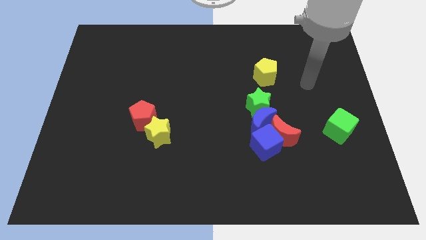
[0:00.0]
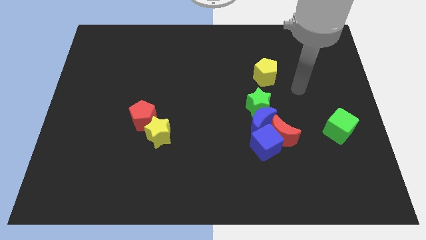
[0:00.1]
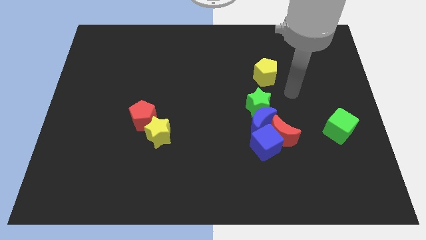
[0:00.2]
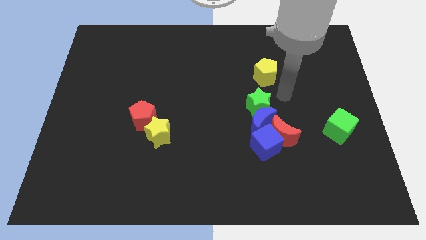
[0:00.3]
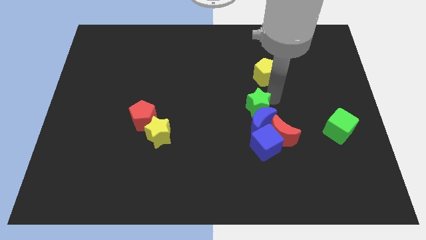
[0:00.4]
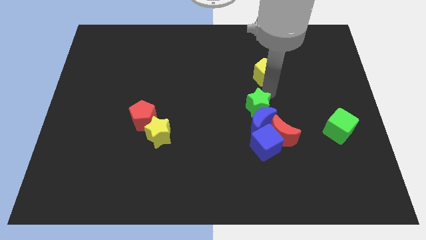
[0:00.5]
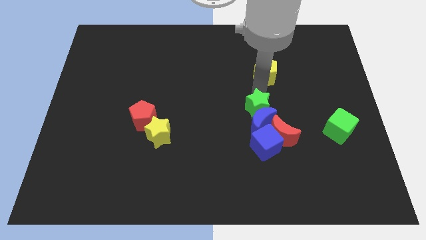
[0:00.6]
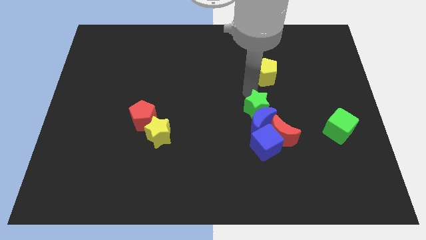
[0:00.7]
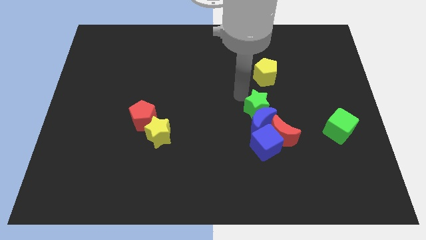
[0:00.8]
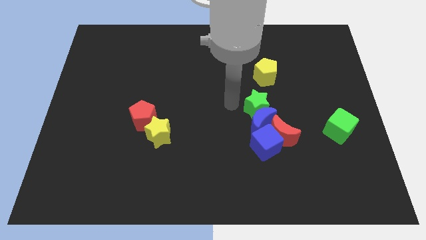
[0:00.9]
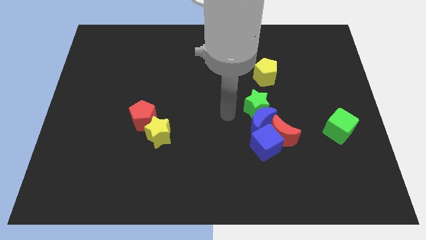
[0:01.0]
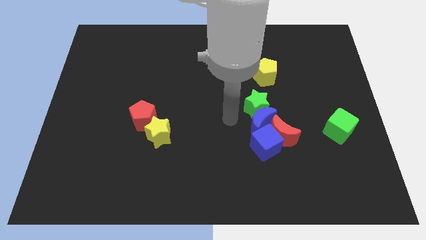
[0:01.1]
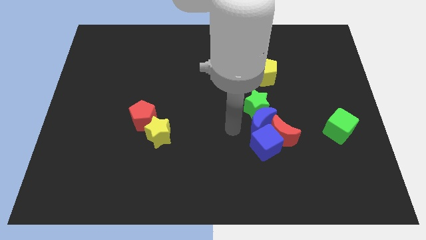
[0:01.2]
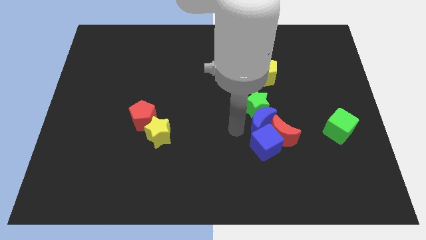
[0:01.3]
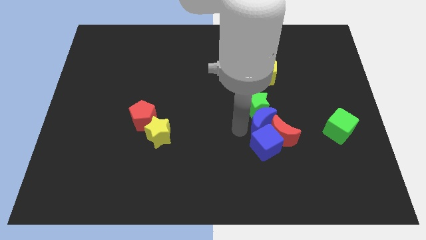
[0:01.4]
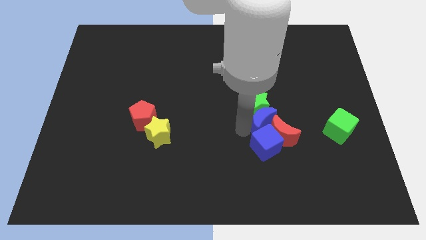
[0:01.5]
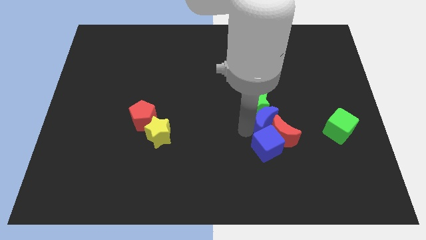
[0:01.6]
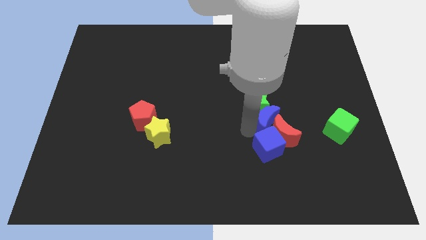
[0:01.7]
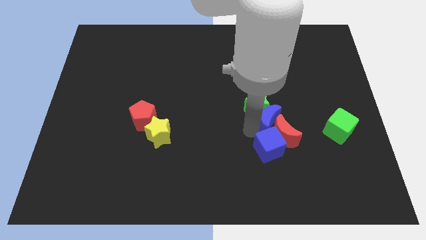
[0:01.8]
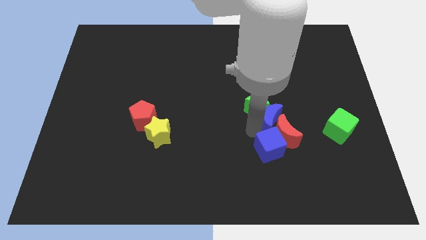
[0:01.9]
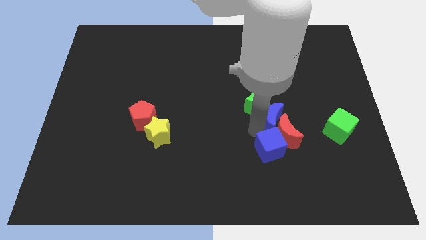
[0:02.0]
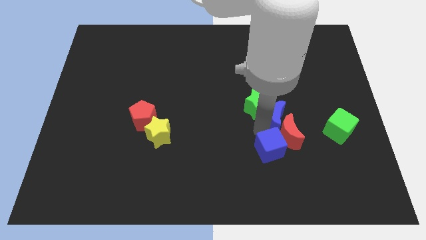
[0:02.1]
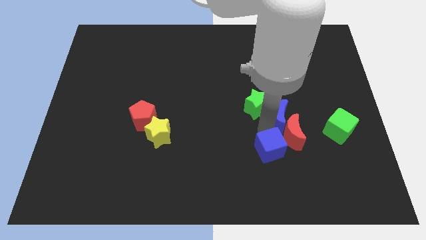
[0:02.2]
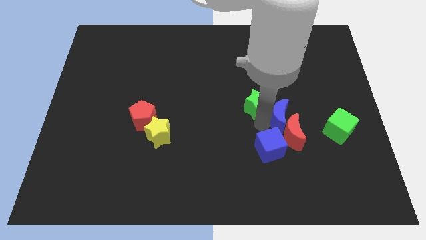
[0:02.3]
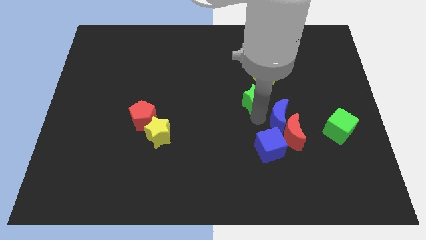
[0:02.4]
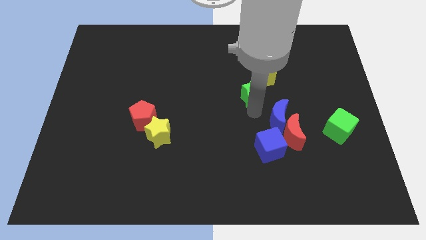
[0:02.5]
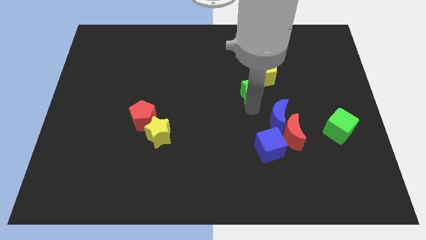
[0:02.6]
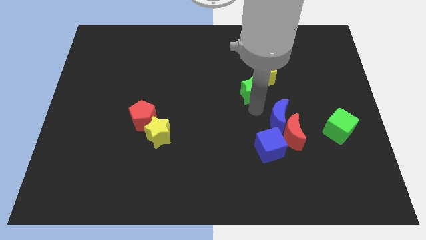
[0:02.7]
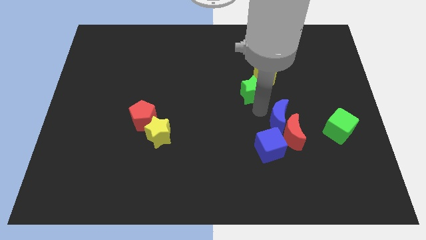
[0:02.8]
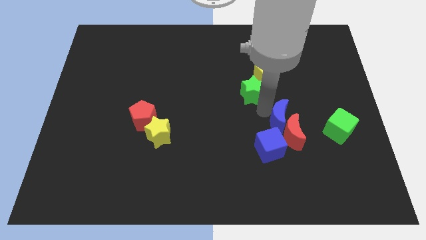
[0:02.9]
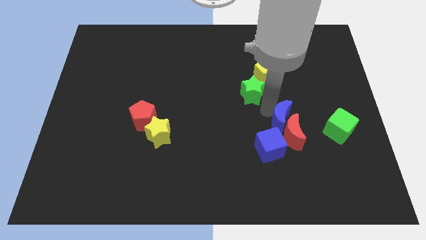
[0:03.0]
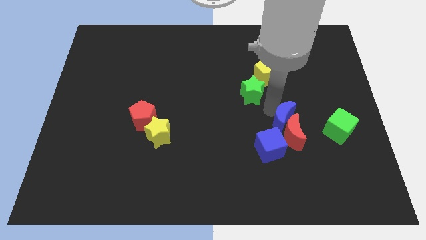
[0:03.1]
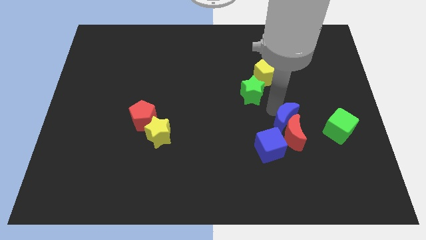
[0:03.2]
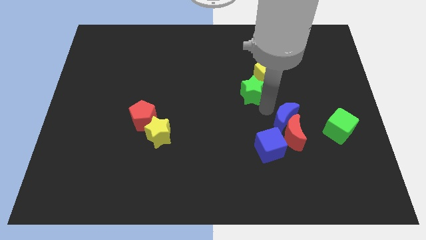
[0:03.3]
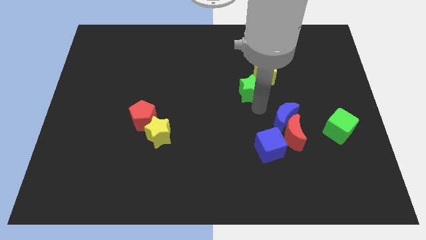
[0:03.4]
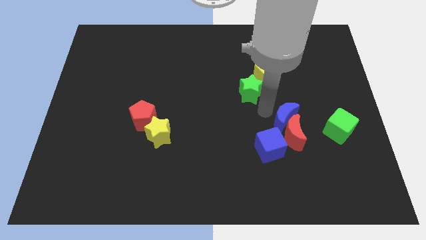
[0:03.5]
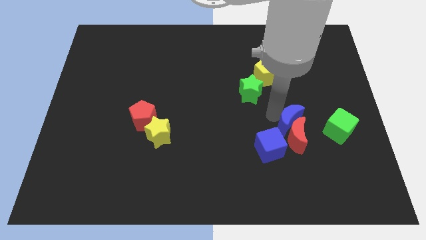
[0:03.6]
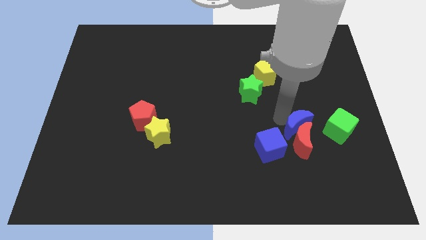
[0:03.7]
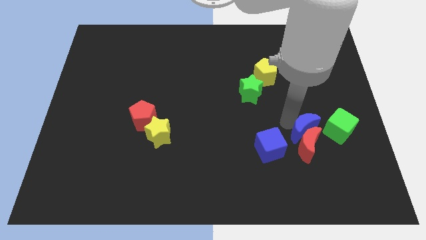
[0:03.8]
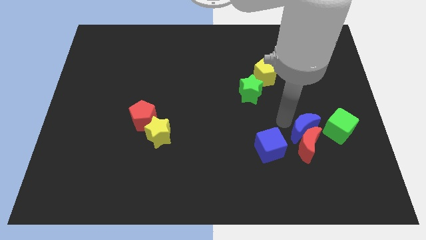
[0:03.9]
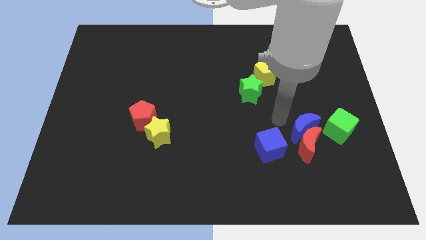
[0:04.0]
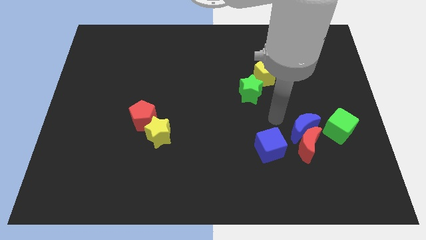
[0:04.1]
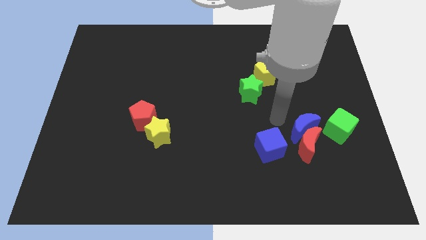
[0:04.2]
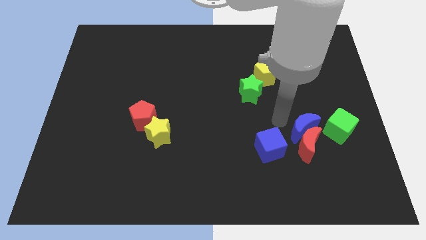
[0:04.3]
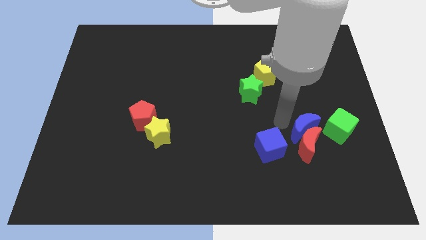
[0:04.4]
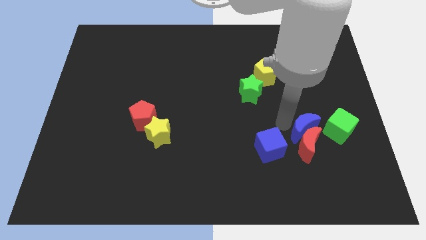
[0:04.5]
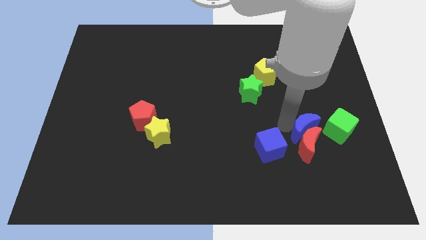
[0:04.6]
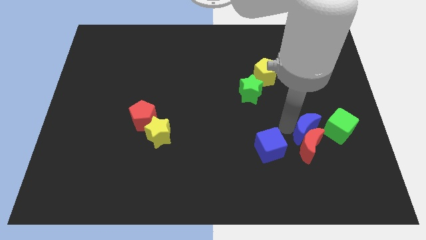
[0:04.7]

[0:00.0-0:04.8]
slightly push the blue moon diagonally downwards and right

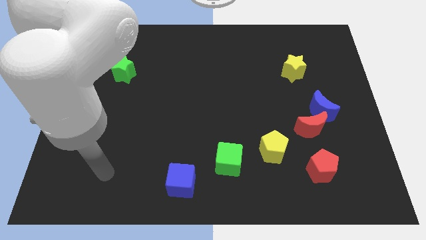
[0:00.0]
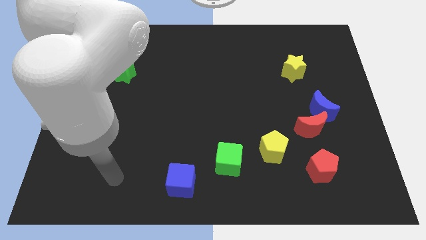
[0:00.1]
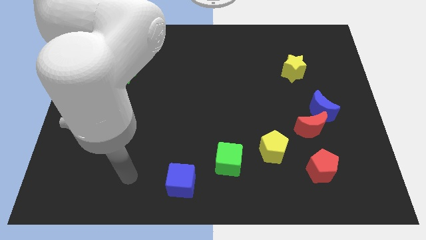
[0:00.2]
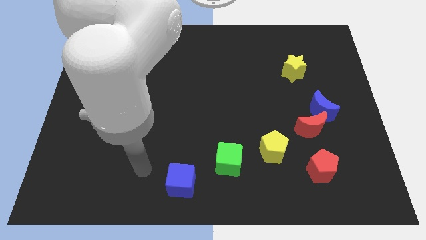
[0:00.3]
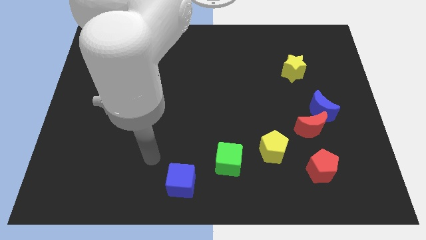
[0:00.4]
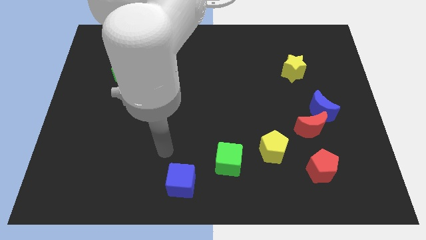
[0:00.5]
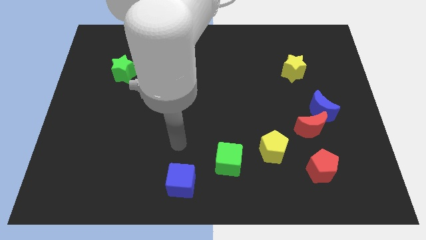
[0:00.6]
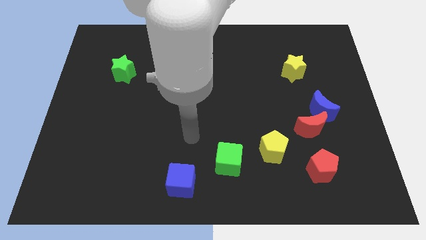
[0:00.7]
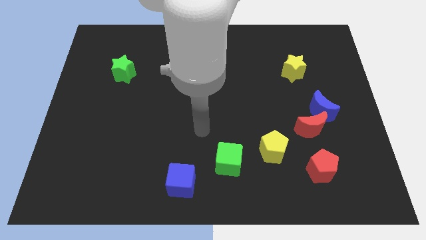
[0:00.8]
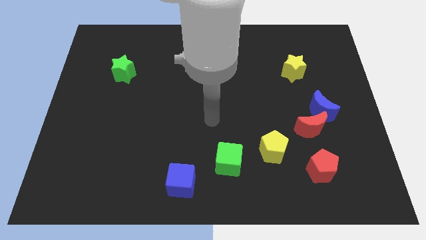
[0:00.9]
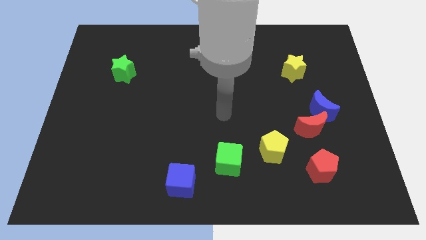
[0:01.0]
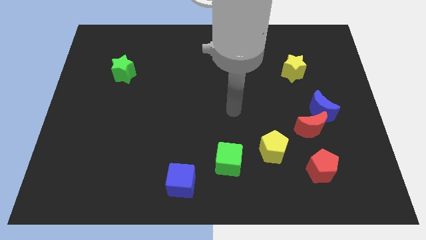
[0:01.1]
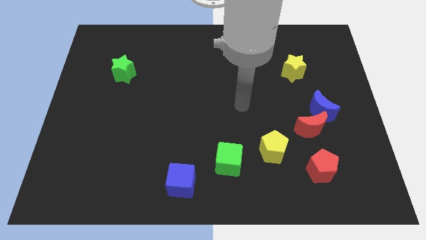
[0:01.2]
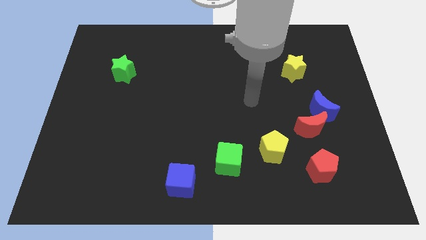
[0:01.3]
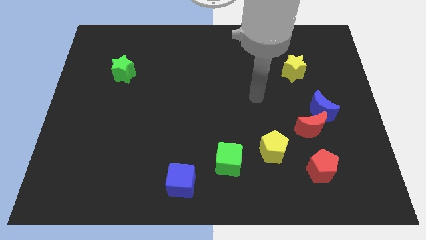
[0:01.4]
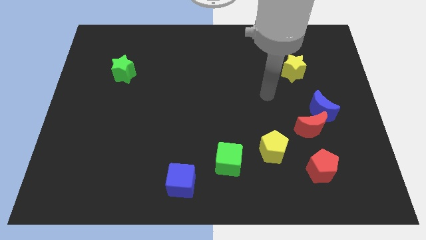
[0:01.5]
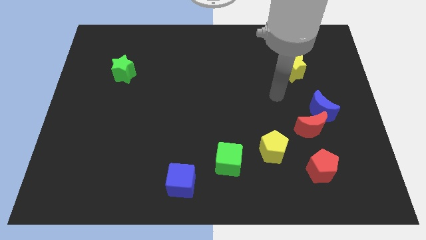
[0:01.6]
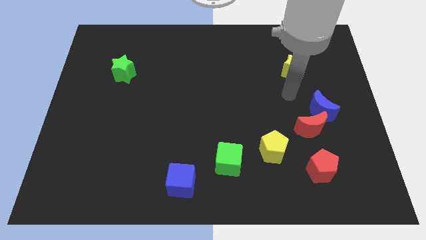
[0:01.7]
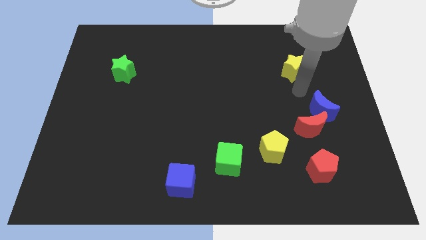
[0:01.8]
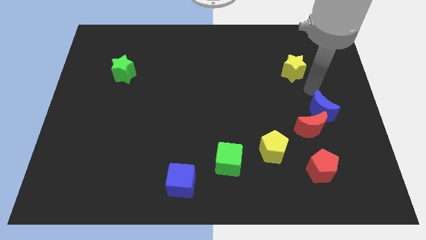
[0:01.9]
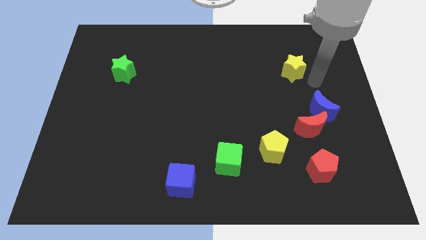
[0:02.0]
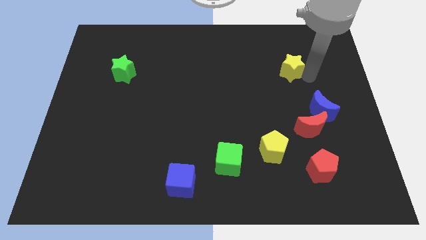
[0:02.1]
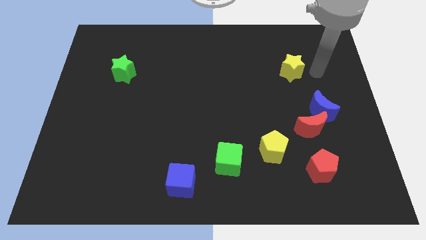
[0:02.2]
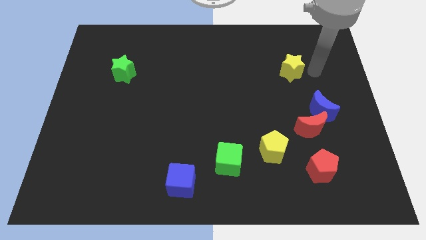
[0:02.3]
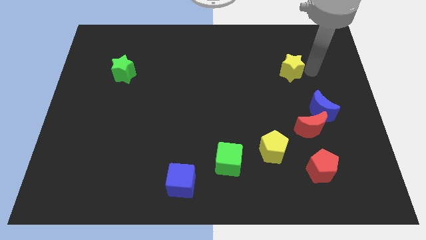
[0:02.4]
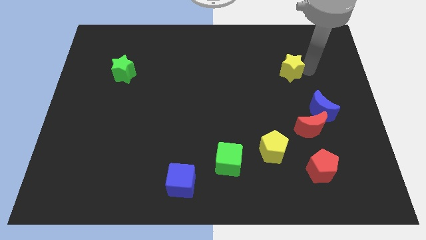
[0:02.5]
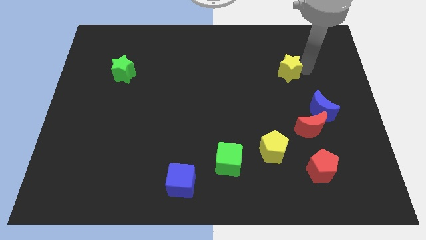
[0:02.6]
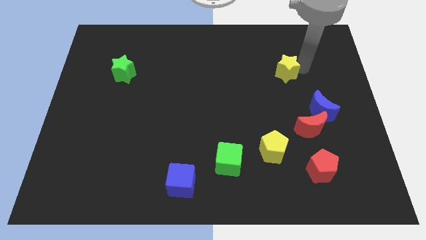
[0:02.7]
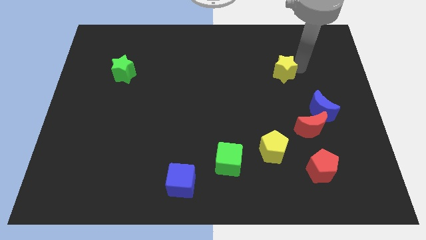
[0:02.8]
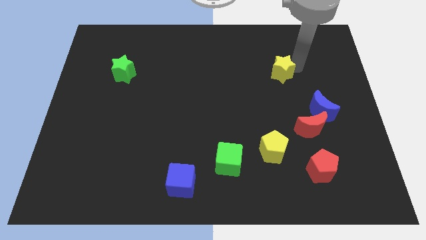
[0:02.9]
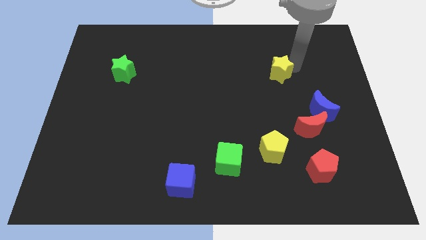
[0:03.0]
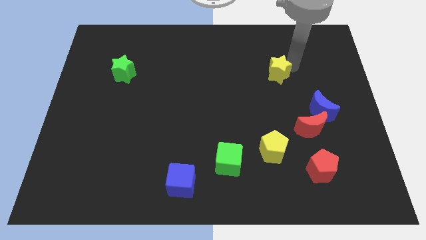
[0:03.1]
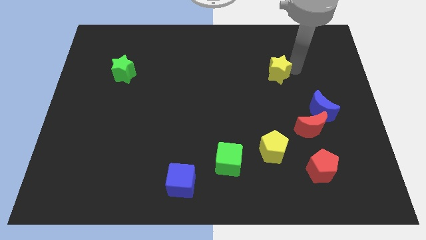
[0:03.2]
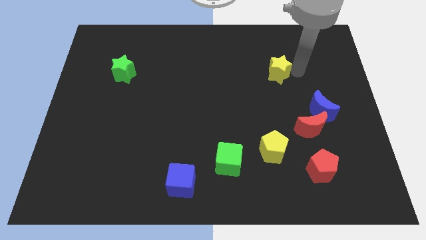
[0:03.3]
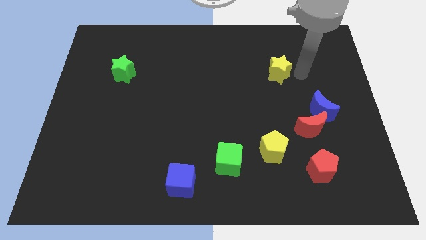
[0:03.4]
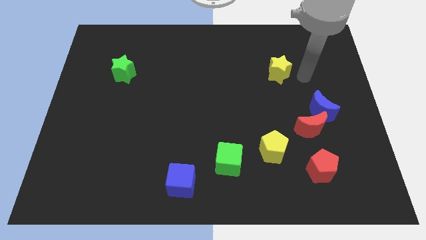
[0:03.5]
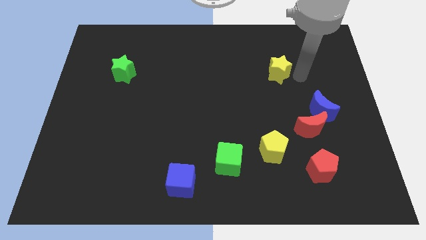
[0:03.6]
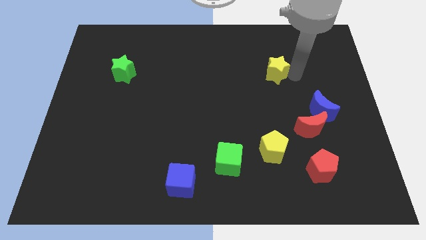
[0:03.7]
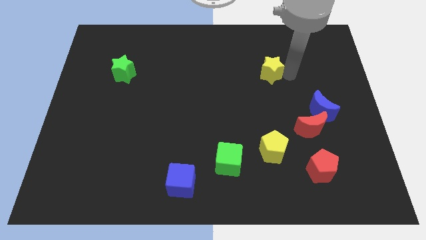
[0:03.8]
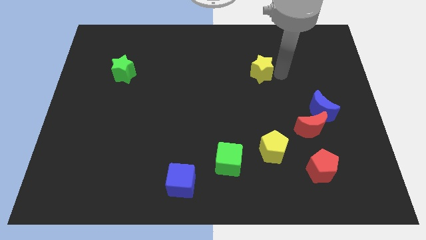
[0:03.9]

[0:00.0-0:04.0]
slightly push the yellow star to the left
